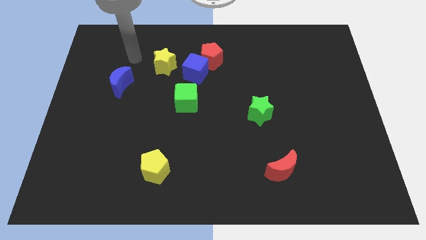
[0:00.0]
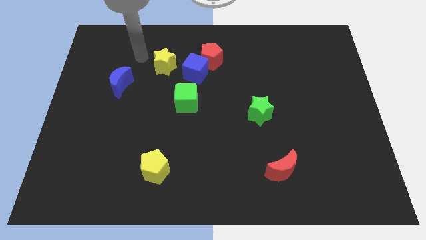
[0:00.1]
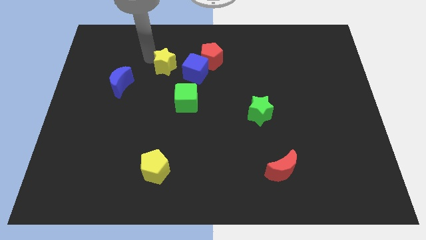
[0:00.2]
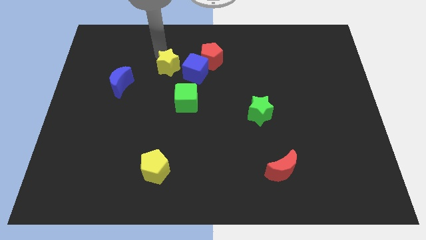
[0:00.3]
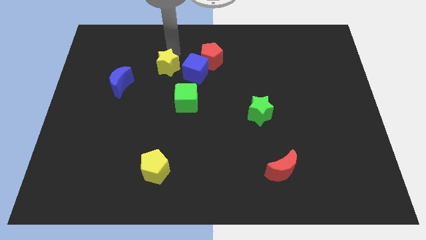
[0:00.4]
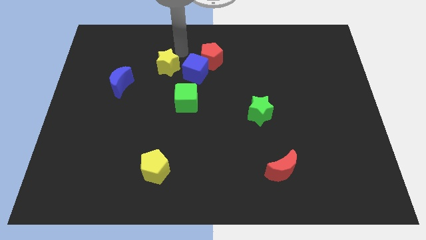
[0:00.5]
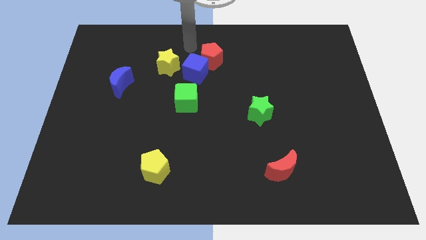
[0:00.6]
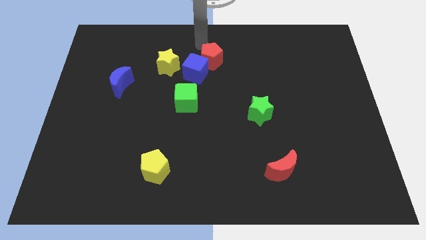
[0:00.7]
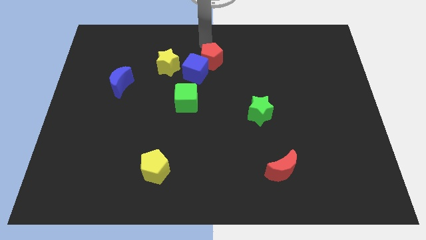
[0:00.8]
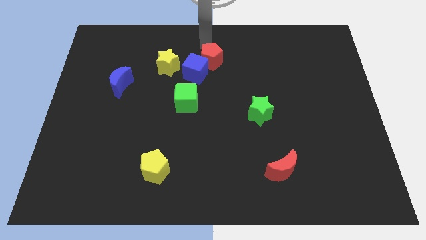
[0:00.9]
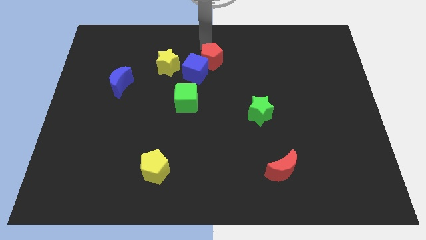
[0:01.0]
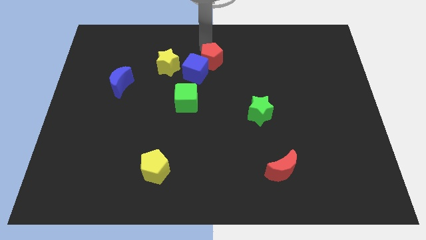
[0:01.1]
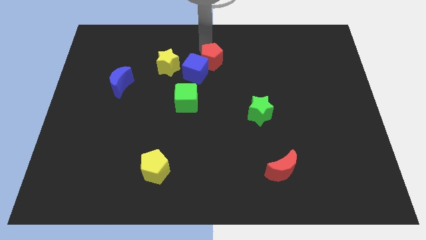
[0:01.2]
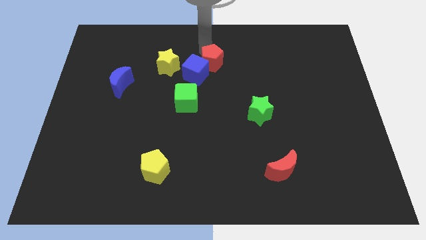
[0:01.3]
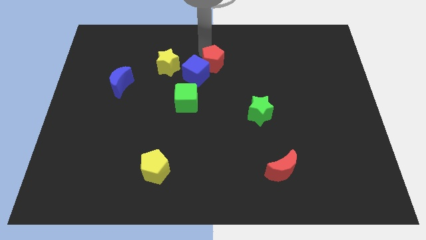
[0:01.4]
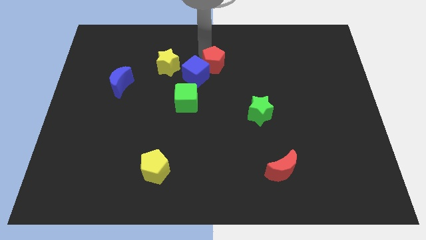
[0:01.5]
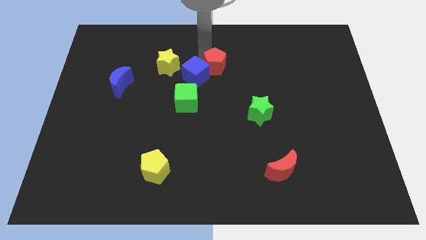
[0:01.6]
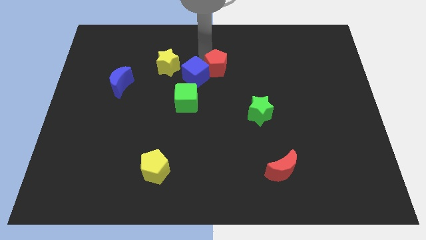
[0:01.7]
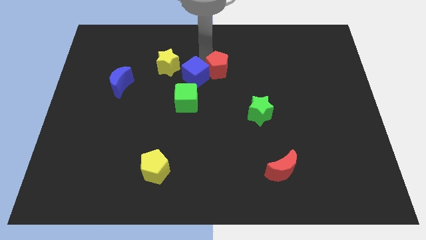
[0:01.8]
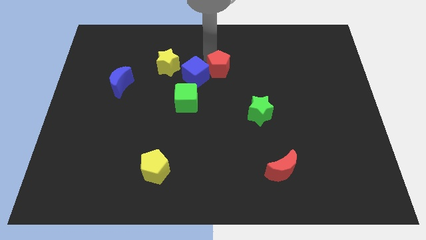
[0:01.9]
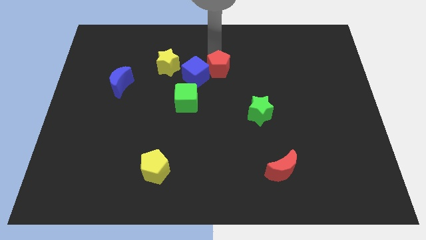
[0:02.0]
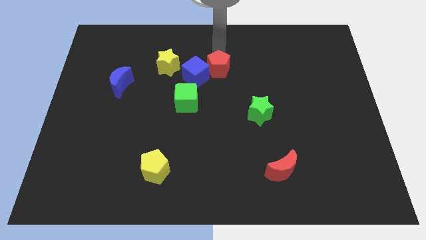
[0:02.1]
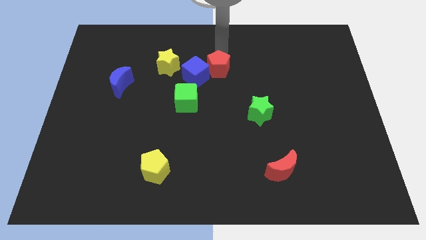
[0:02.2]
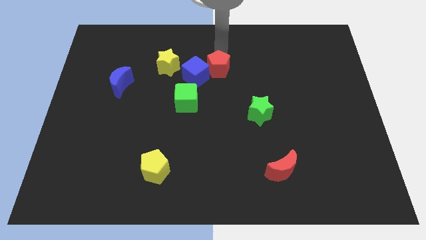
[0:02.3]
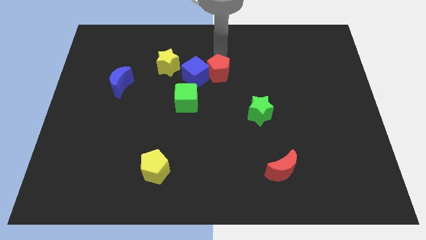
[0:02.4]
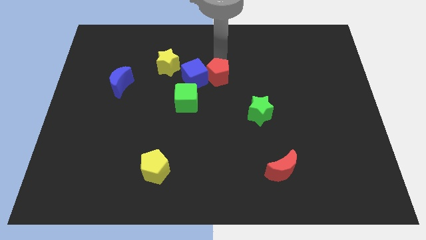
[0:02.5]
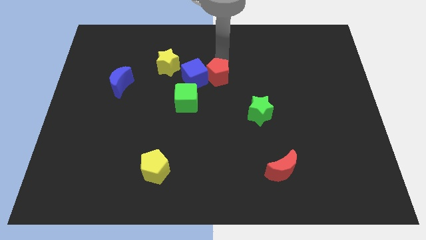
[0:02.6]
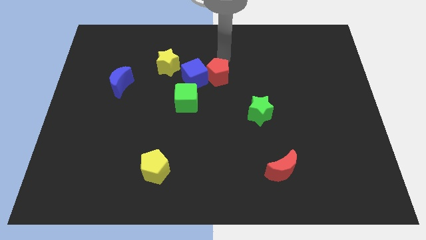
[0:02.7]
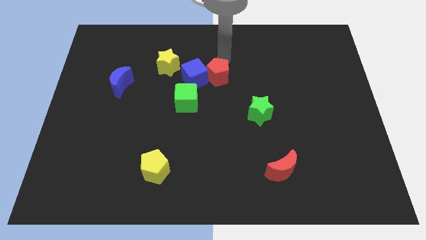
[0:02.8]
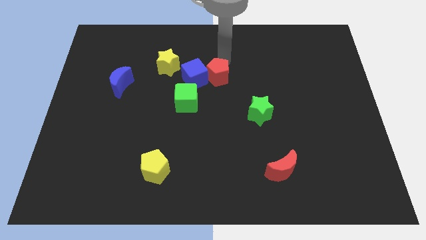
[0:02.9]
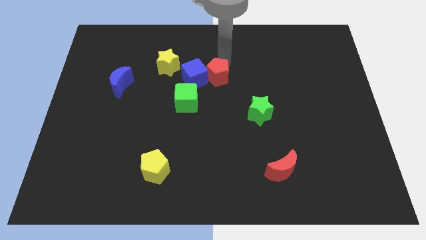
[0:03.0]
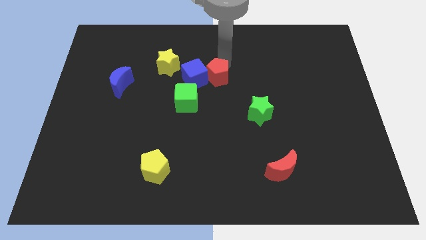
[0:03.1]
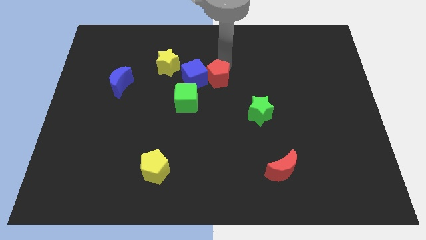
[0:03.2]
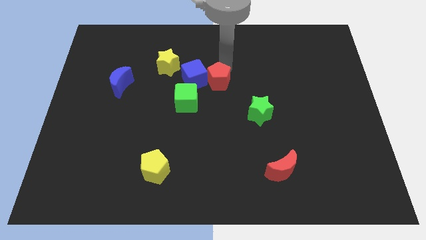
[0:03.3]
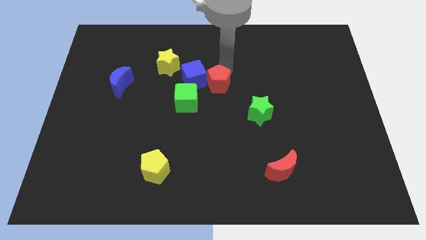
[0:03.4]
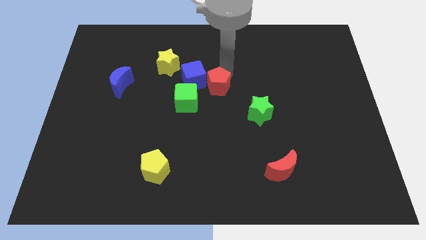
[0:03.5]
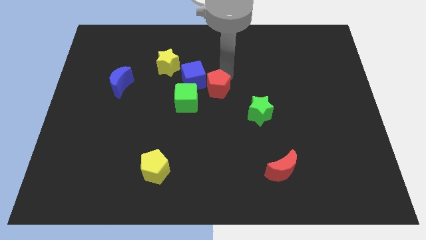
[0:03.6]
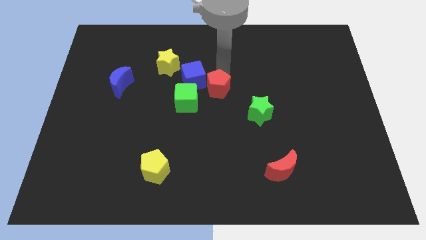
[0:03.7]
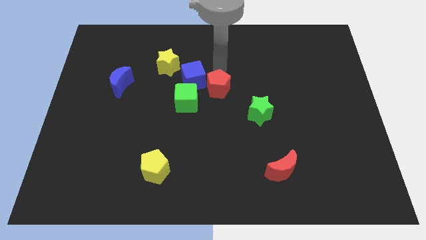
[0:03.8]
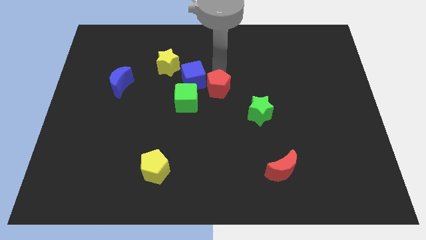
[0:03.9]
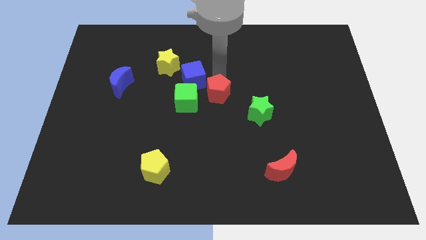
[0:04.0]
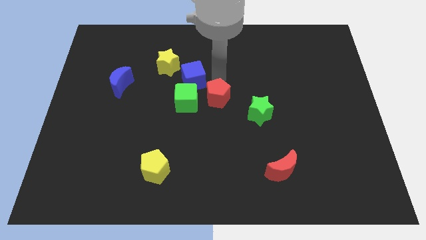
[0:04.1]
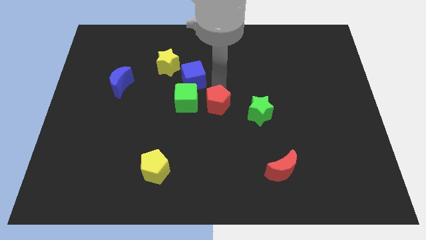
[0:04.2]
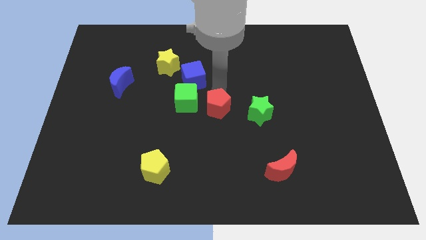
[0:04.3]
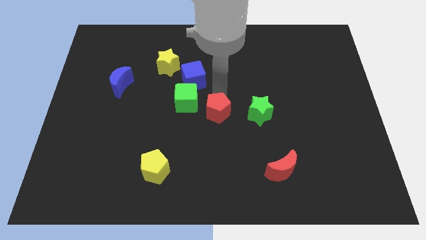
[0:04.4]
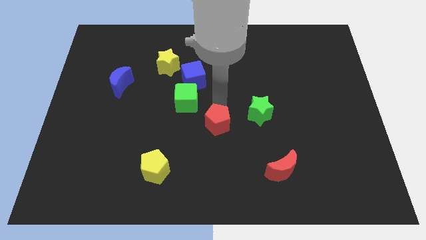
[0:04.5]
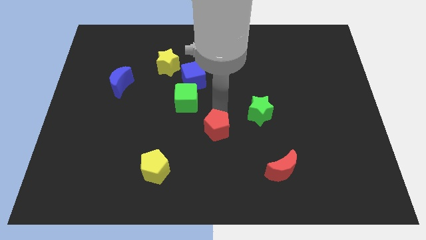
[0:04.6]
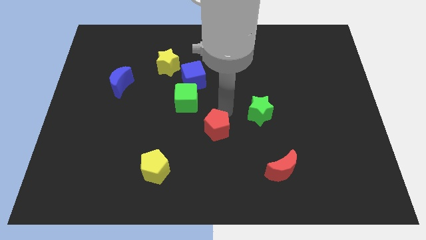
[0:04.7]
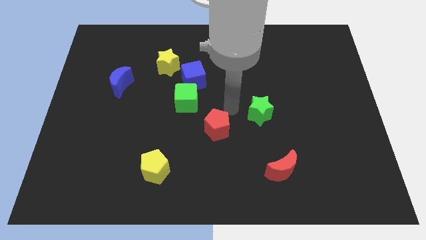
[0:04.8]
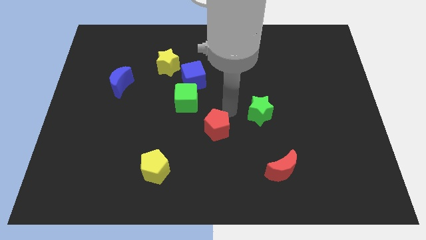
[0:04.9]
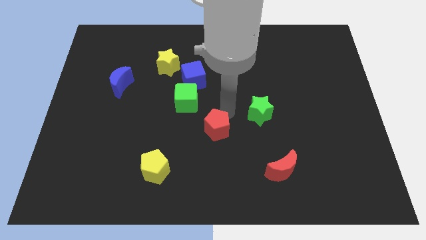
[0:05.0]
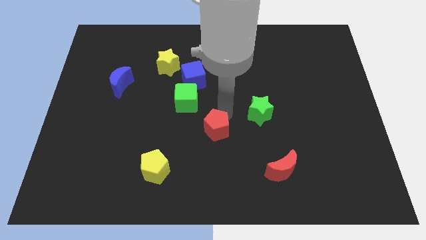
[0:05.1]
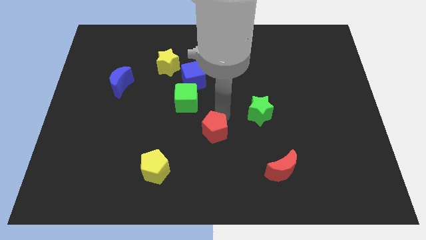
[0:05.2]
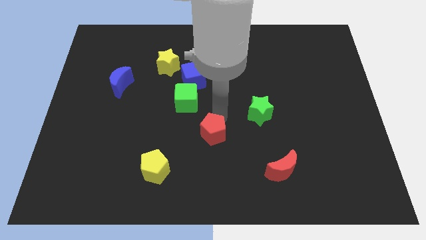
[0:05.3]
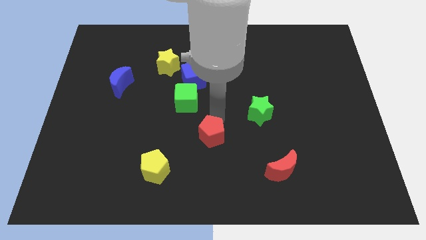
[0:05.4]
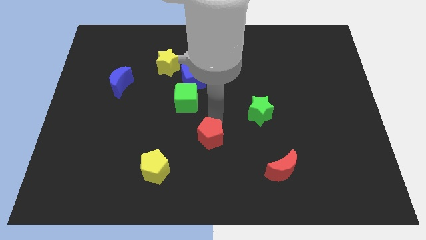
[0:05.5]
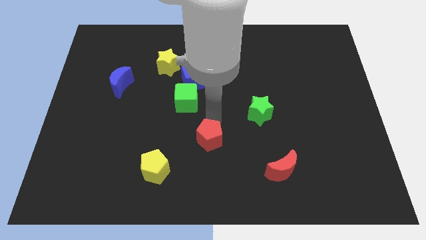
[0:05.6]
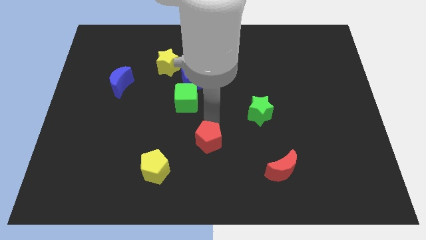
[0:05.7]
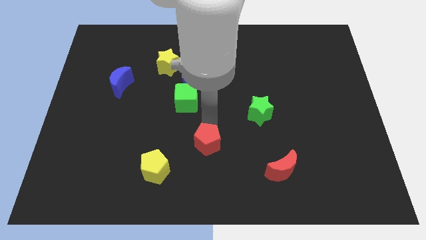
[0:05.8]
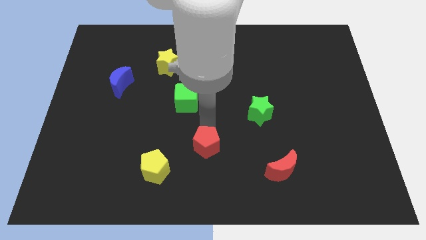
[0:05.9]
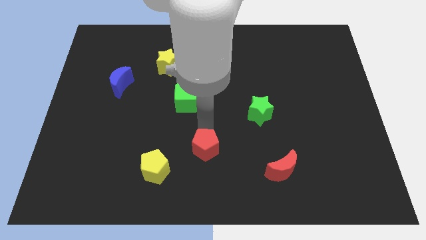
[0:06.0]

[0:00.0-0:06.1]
move the red pentagon to the right of the yellow pentagon

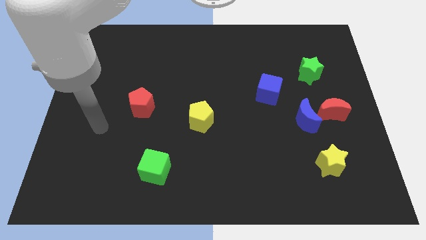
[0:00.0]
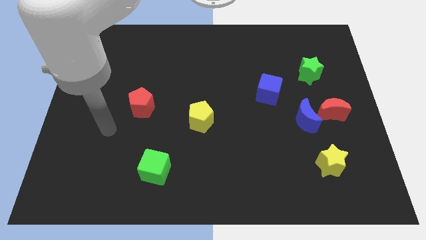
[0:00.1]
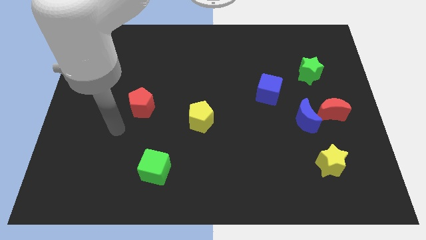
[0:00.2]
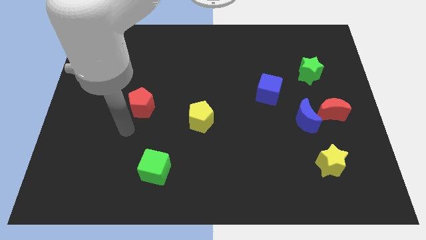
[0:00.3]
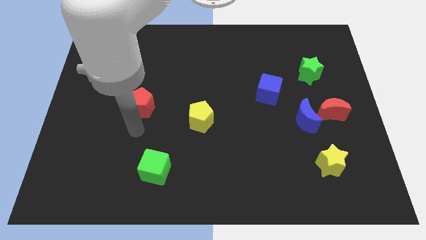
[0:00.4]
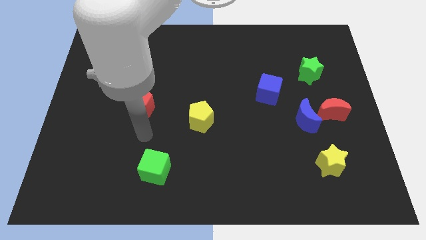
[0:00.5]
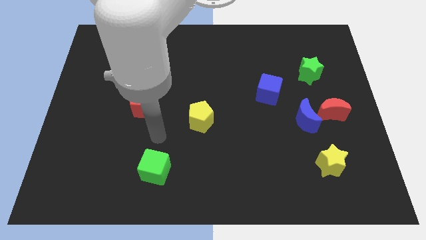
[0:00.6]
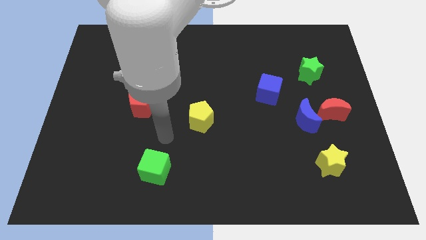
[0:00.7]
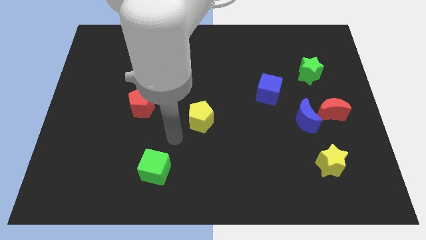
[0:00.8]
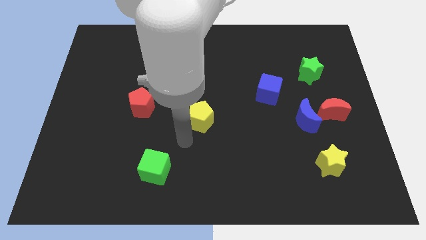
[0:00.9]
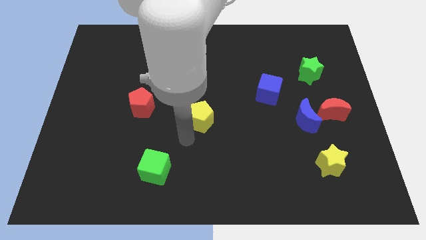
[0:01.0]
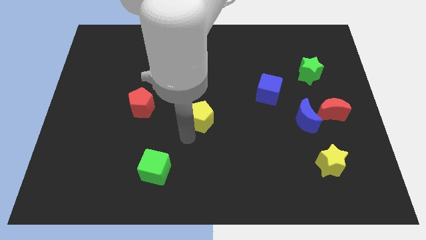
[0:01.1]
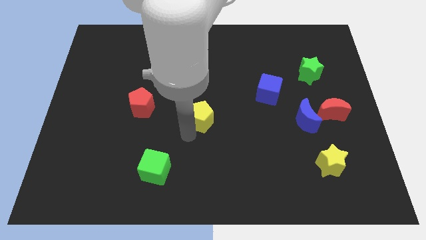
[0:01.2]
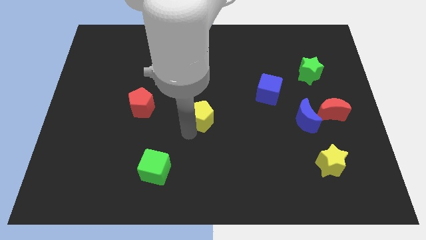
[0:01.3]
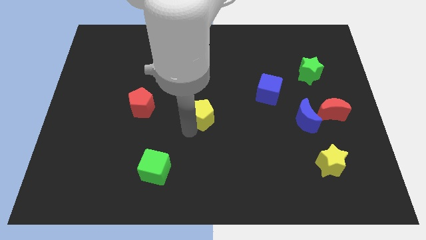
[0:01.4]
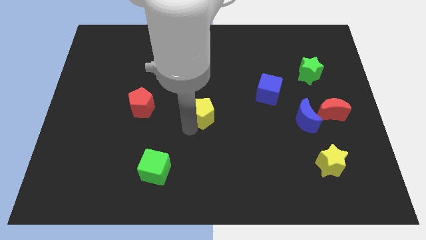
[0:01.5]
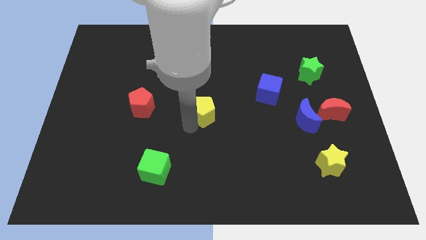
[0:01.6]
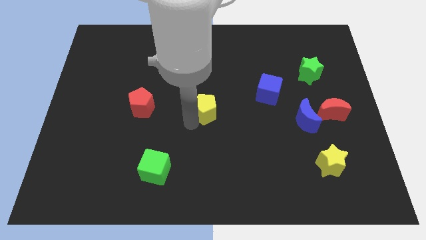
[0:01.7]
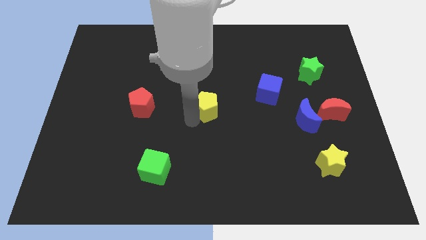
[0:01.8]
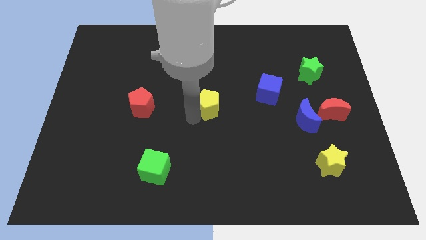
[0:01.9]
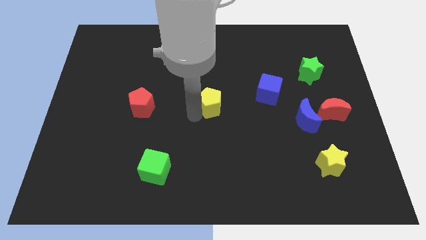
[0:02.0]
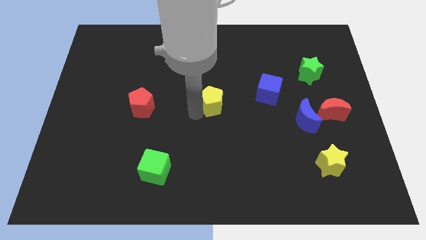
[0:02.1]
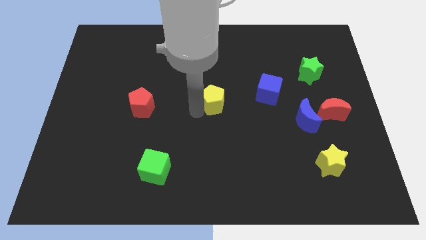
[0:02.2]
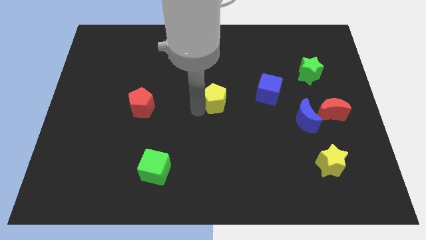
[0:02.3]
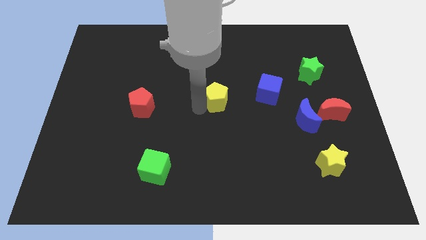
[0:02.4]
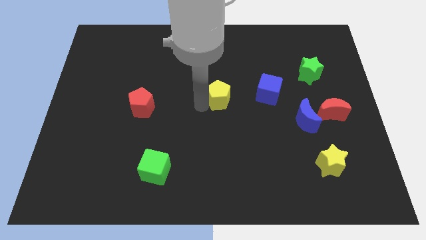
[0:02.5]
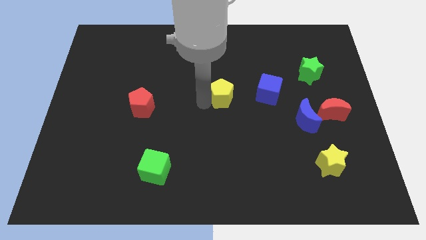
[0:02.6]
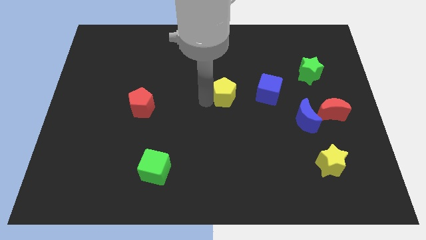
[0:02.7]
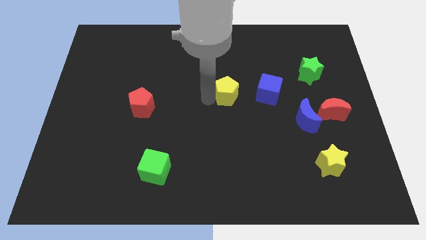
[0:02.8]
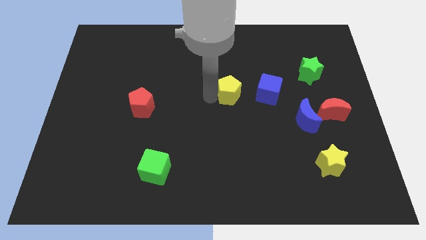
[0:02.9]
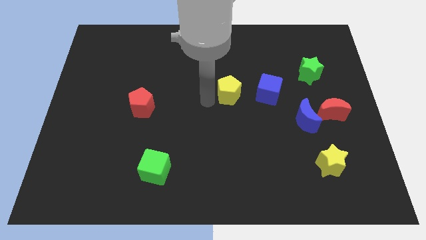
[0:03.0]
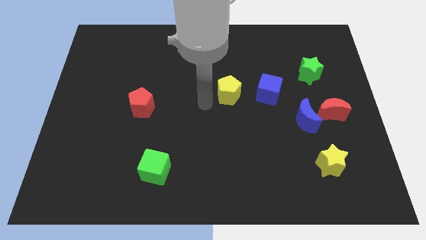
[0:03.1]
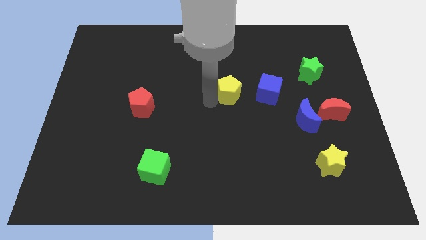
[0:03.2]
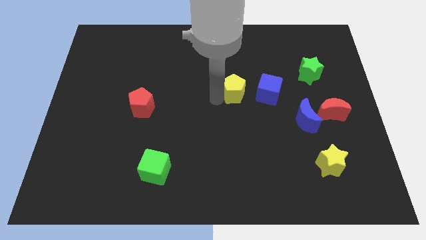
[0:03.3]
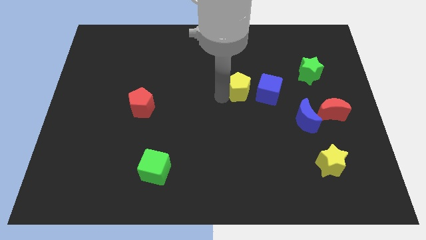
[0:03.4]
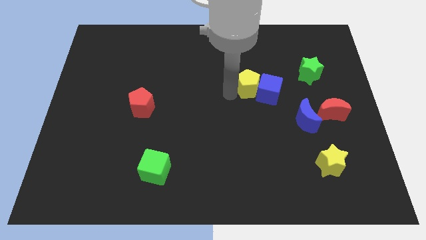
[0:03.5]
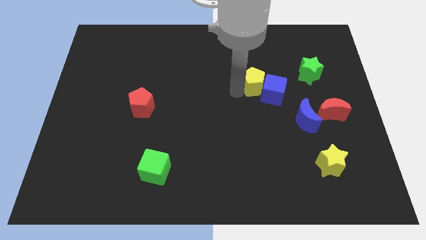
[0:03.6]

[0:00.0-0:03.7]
slide the yellow pentagon left of the green star
